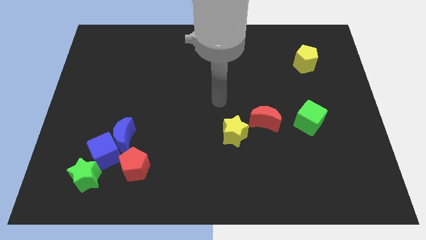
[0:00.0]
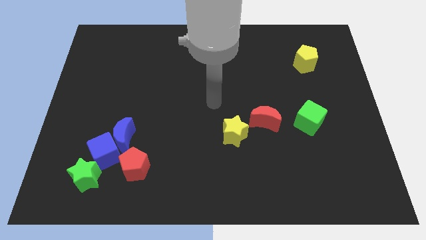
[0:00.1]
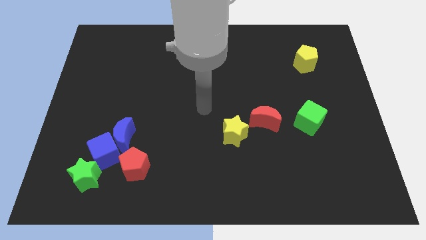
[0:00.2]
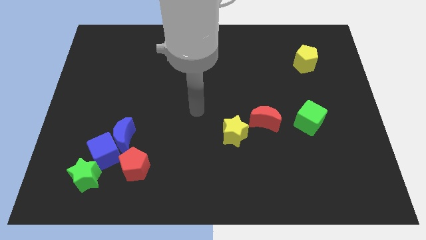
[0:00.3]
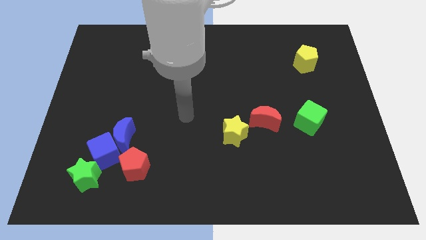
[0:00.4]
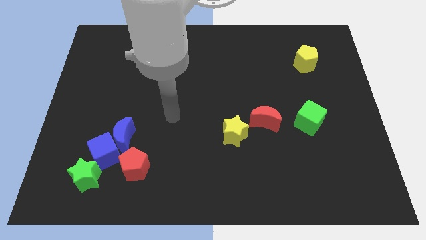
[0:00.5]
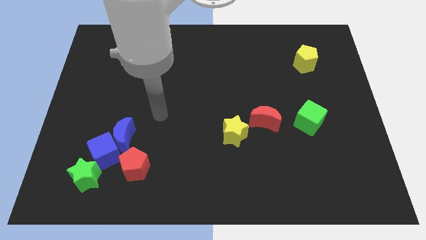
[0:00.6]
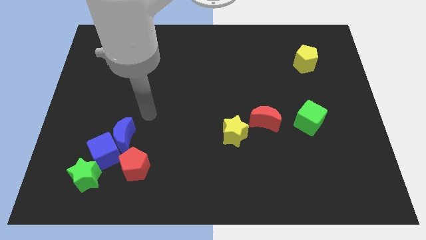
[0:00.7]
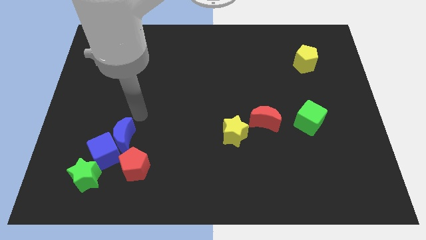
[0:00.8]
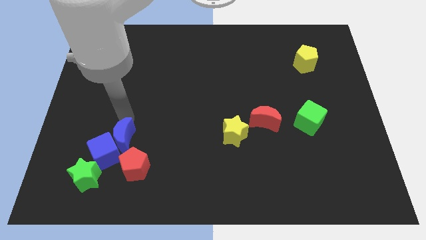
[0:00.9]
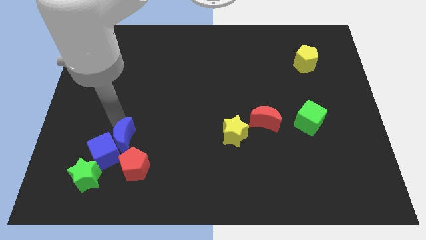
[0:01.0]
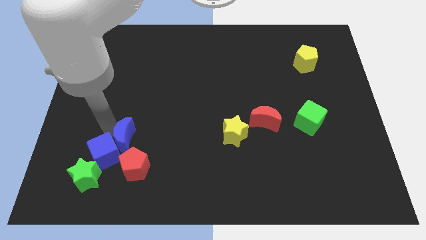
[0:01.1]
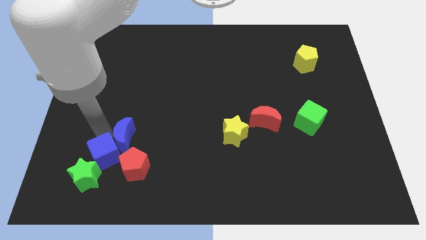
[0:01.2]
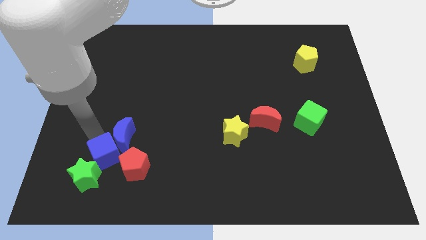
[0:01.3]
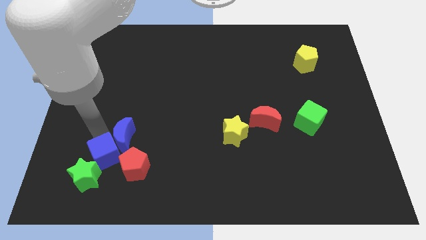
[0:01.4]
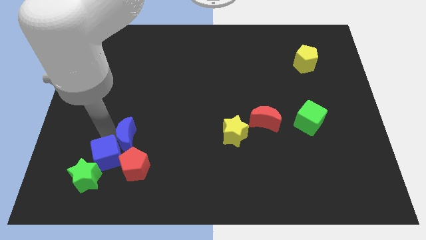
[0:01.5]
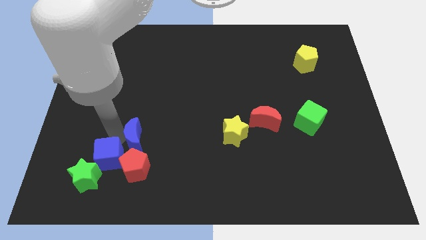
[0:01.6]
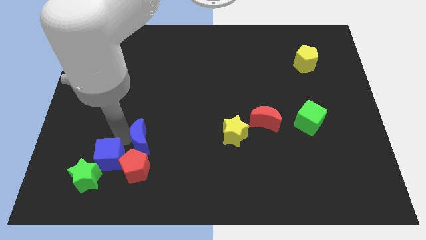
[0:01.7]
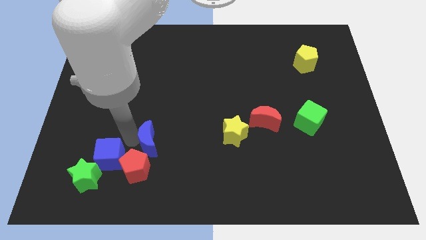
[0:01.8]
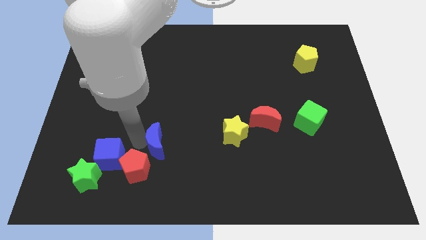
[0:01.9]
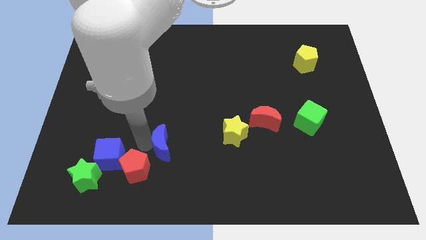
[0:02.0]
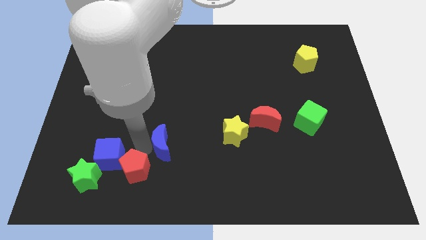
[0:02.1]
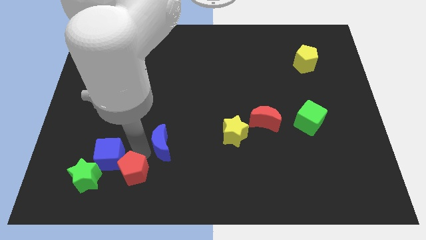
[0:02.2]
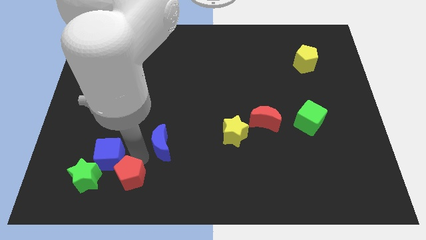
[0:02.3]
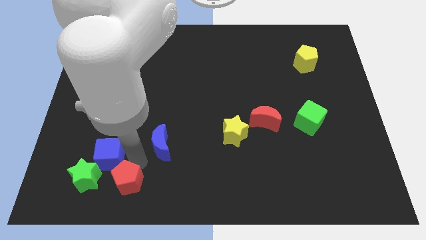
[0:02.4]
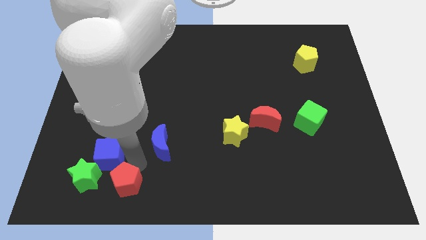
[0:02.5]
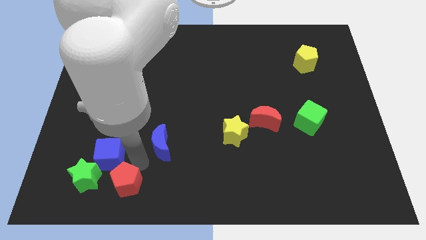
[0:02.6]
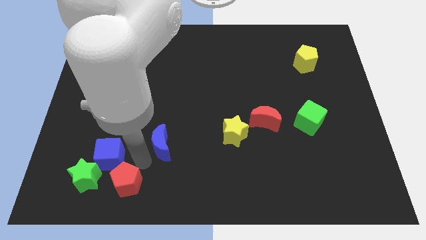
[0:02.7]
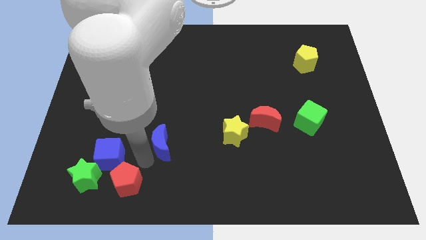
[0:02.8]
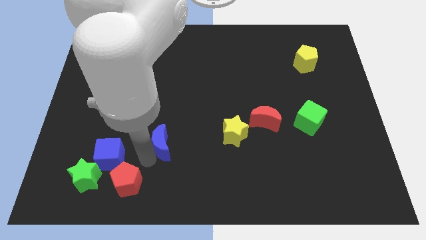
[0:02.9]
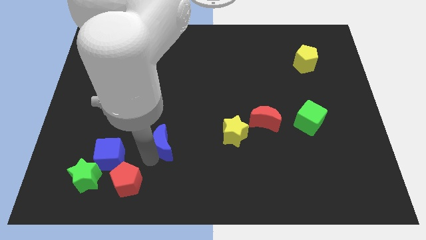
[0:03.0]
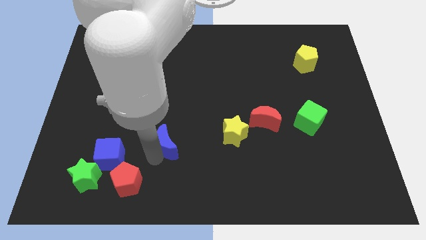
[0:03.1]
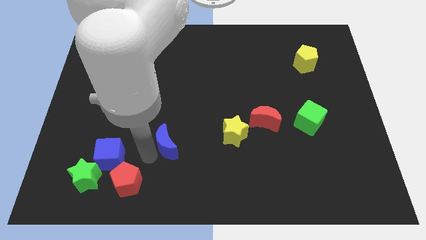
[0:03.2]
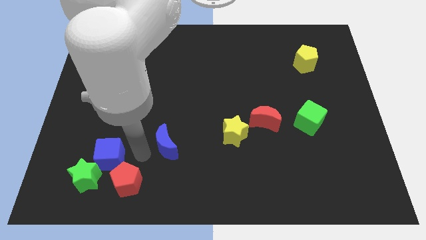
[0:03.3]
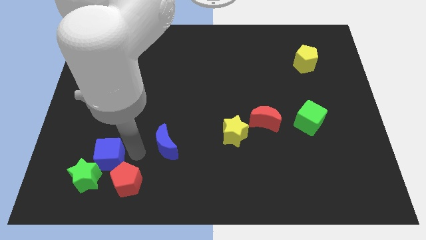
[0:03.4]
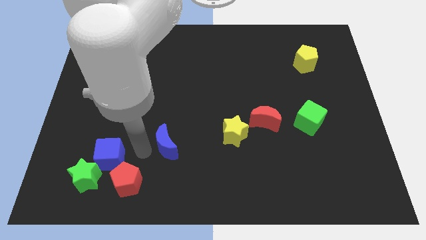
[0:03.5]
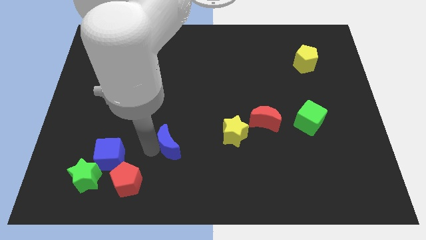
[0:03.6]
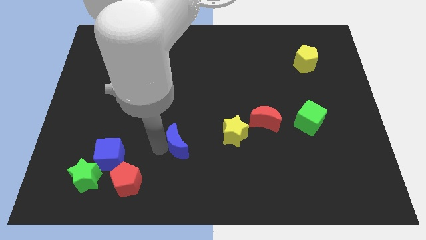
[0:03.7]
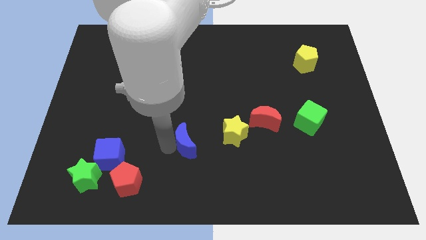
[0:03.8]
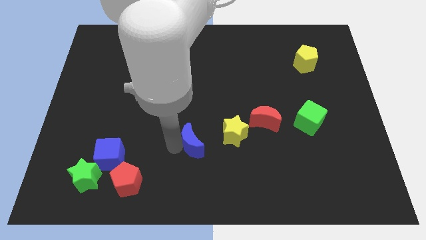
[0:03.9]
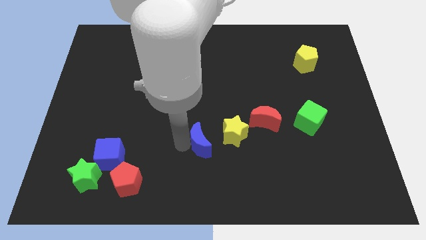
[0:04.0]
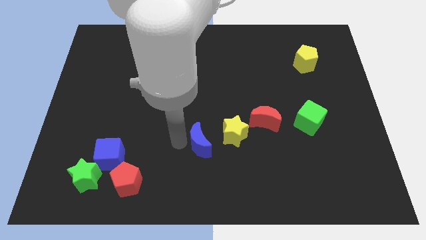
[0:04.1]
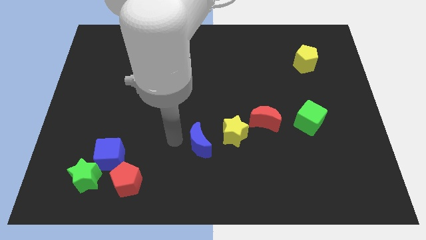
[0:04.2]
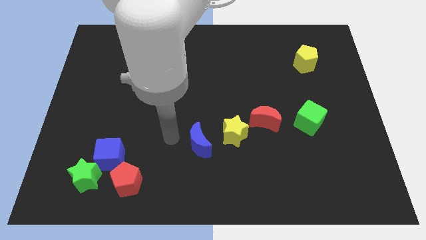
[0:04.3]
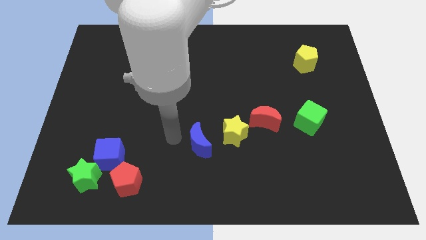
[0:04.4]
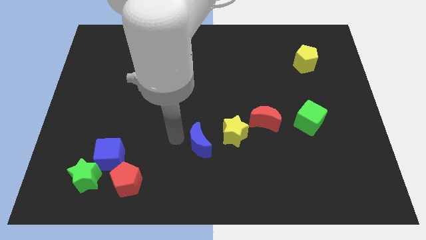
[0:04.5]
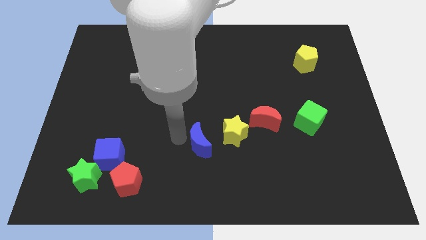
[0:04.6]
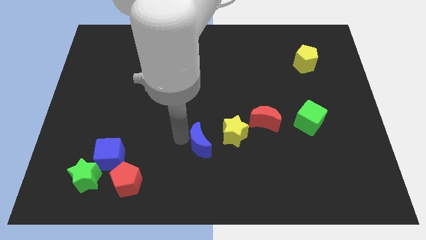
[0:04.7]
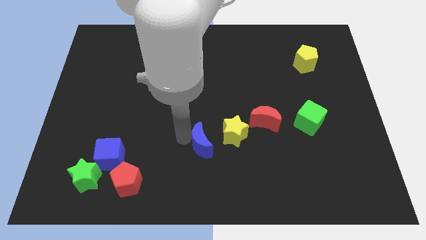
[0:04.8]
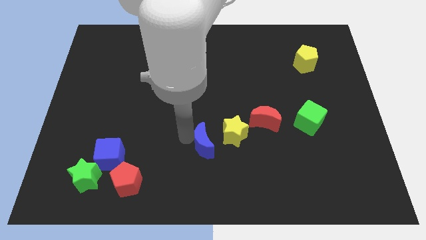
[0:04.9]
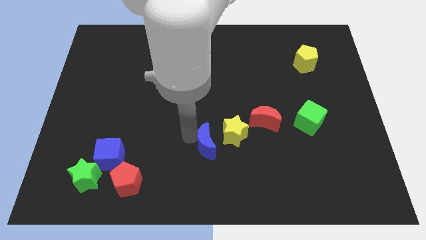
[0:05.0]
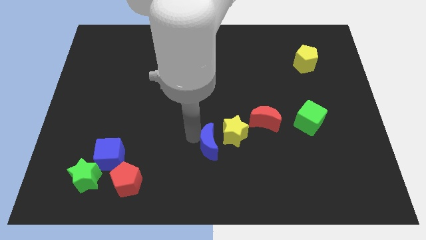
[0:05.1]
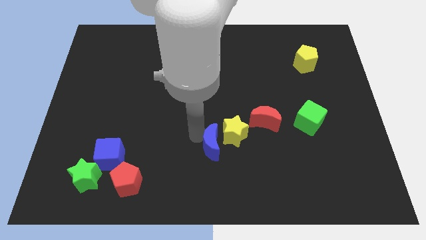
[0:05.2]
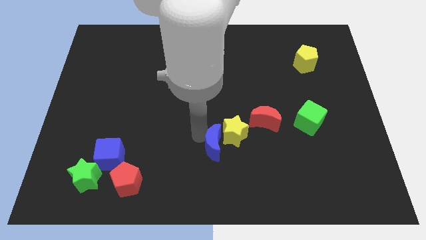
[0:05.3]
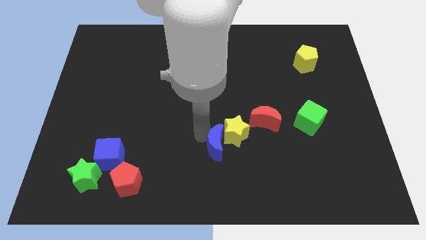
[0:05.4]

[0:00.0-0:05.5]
push the blue moon right

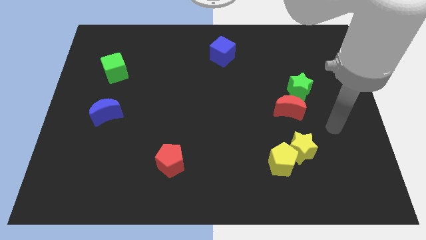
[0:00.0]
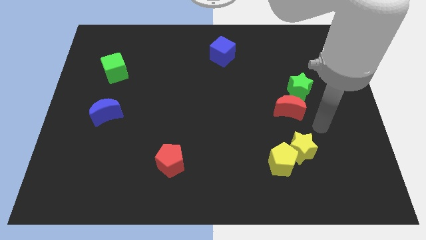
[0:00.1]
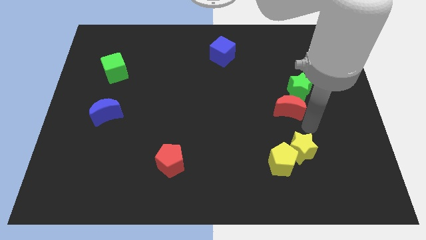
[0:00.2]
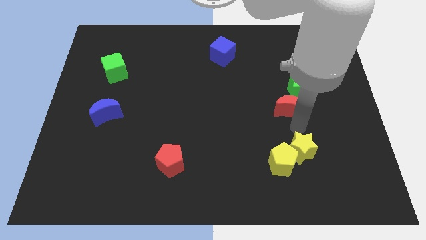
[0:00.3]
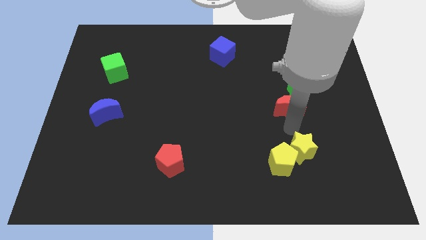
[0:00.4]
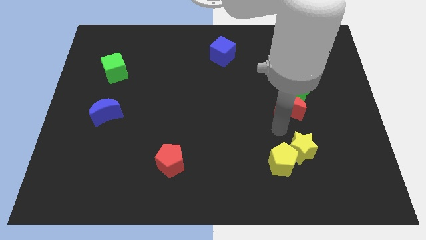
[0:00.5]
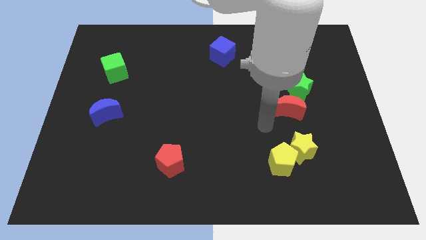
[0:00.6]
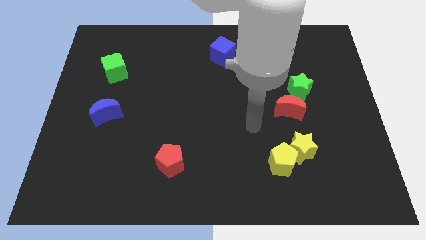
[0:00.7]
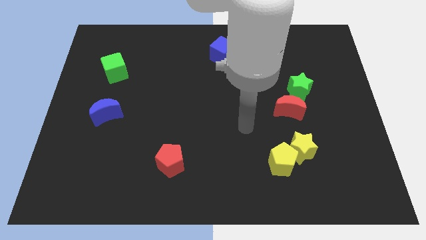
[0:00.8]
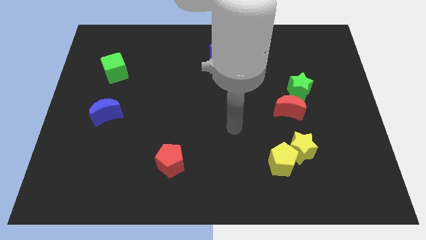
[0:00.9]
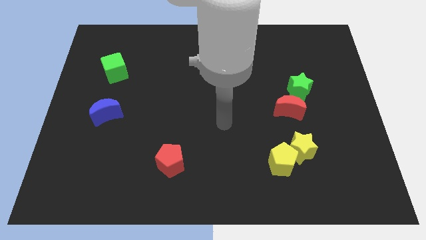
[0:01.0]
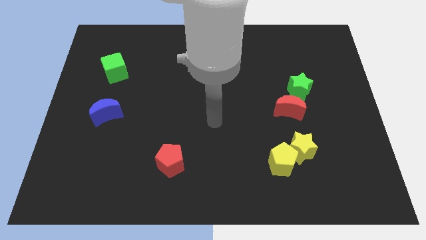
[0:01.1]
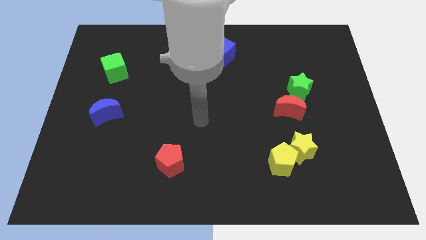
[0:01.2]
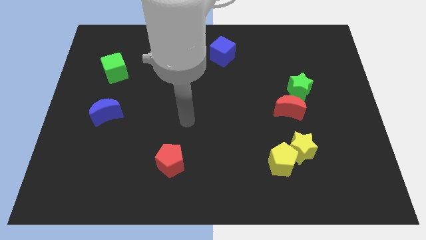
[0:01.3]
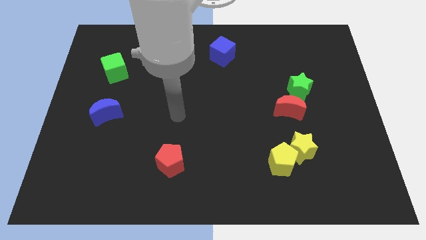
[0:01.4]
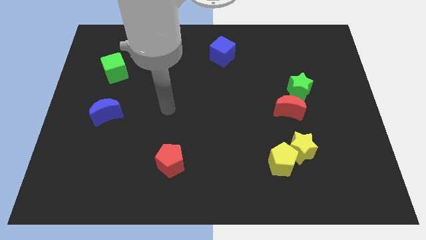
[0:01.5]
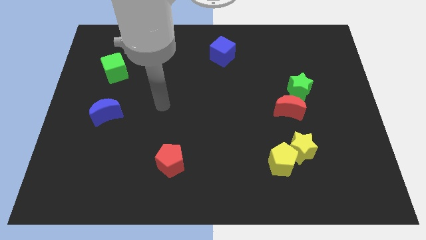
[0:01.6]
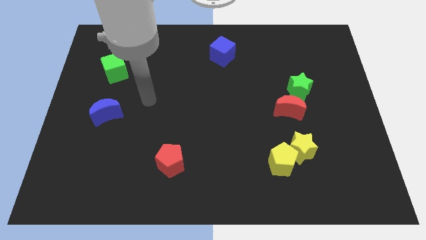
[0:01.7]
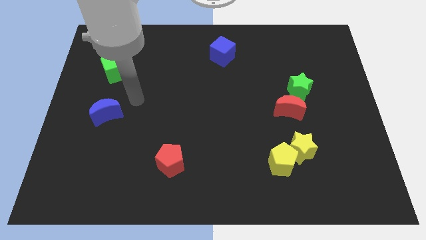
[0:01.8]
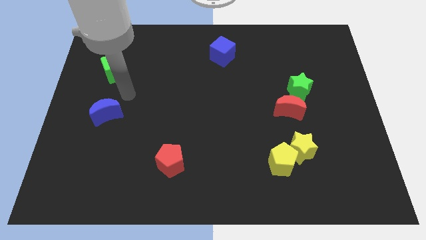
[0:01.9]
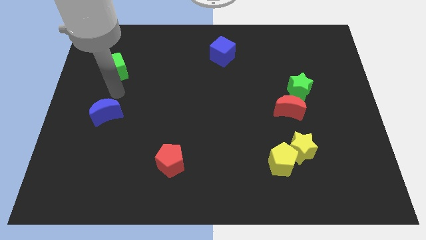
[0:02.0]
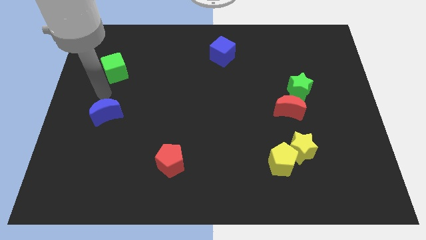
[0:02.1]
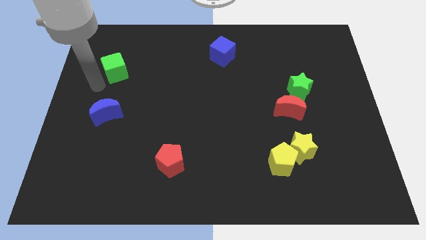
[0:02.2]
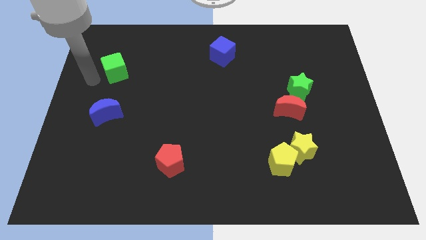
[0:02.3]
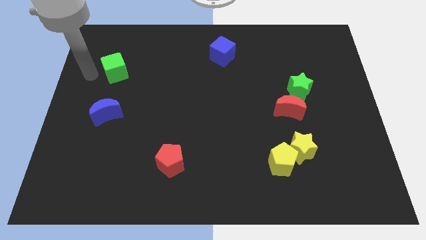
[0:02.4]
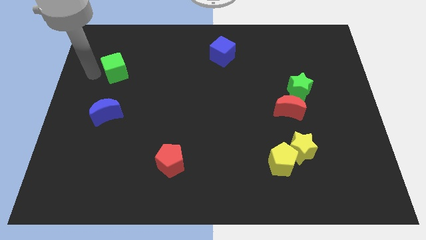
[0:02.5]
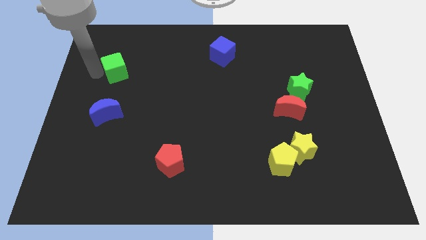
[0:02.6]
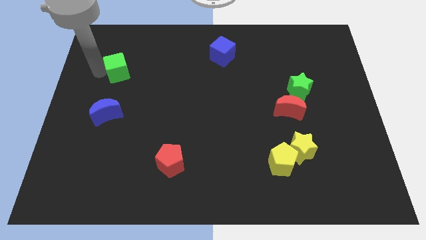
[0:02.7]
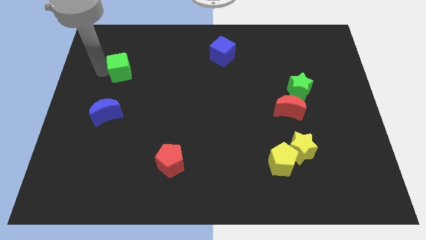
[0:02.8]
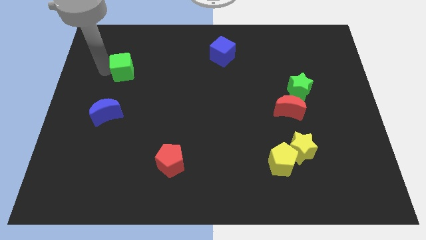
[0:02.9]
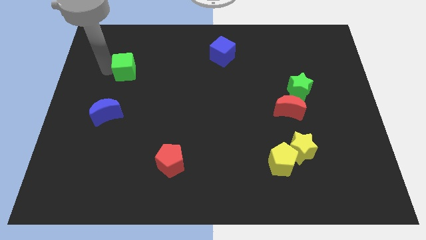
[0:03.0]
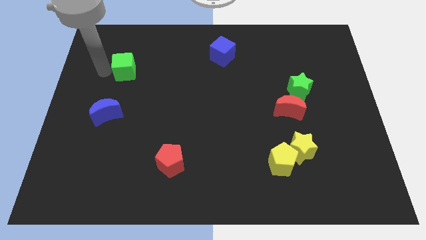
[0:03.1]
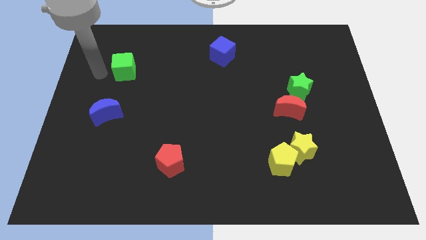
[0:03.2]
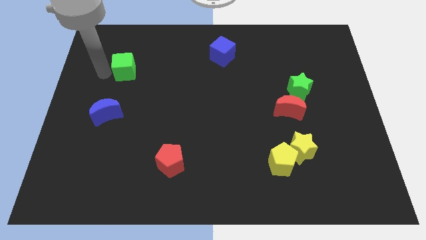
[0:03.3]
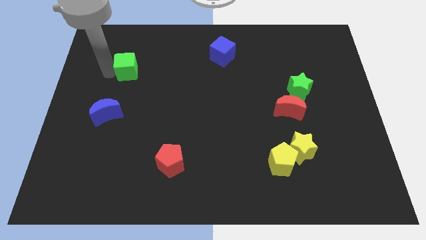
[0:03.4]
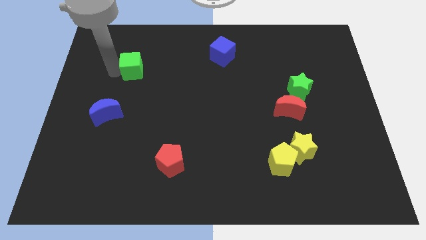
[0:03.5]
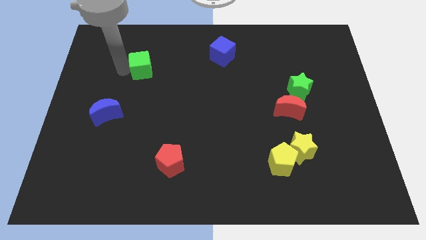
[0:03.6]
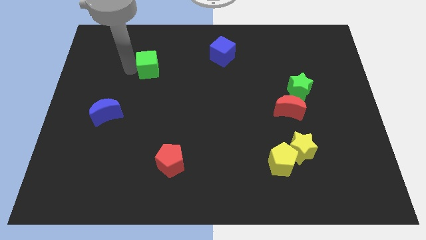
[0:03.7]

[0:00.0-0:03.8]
push the green cube a little right
